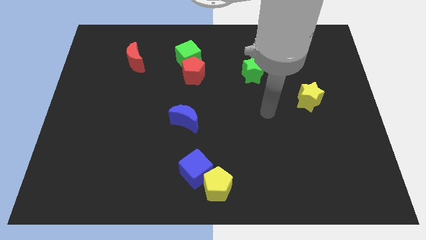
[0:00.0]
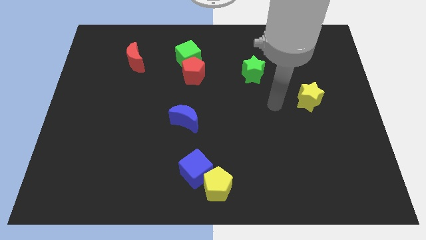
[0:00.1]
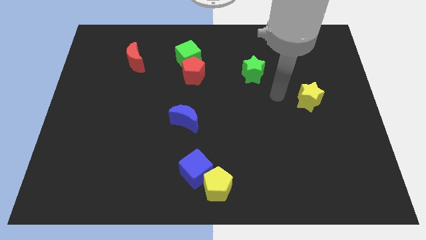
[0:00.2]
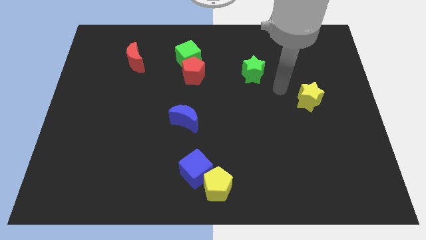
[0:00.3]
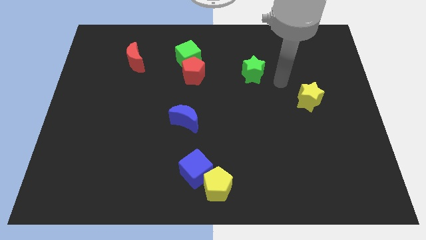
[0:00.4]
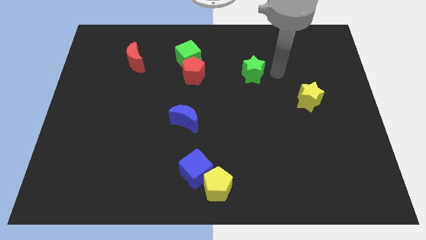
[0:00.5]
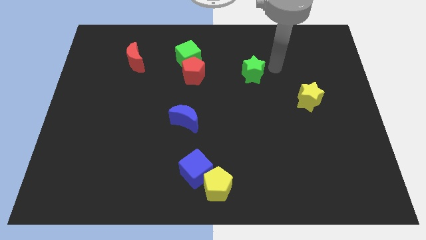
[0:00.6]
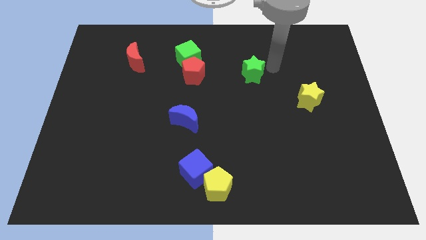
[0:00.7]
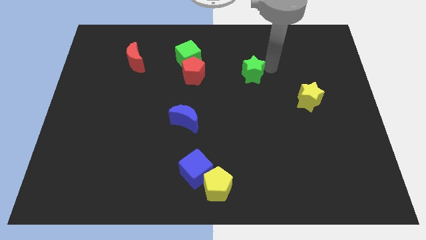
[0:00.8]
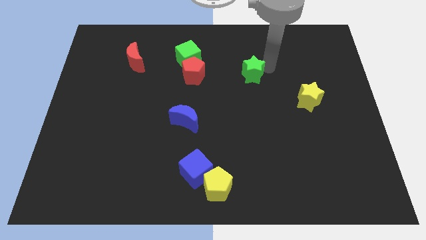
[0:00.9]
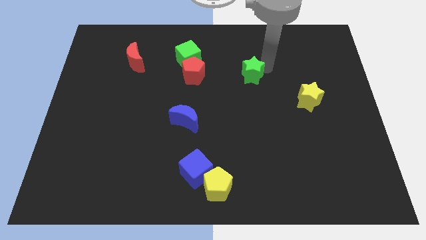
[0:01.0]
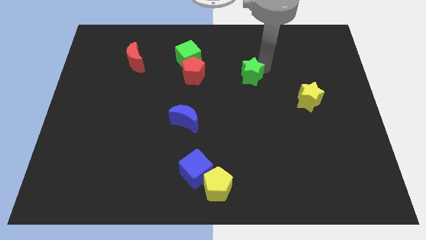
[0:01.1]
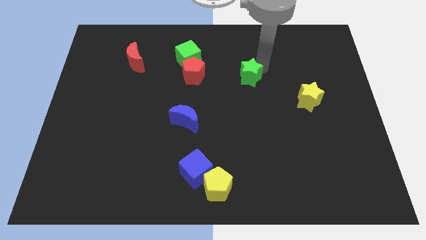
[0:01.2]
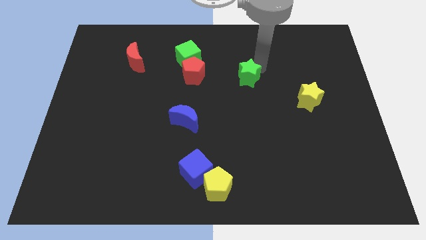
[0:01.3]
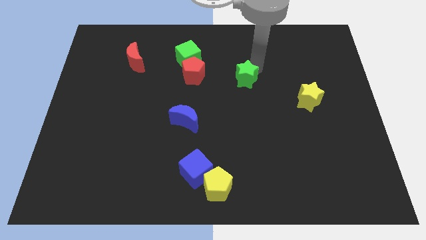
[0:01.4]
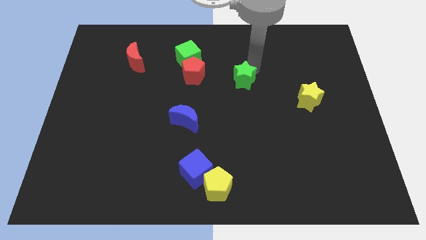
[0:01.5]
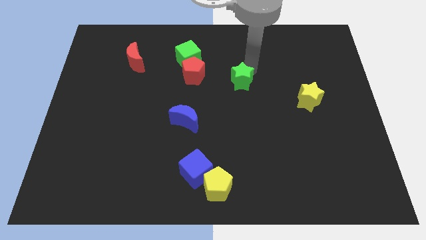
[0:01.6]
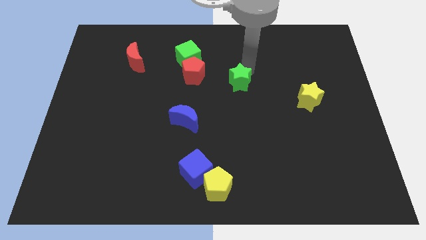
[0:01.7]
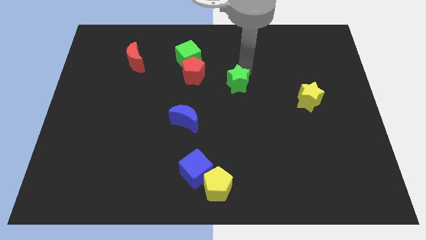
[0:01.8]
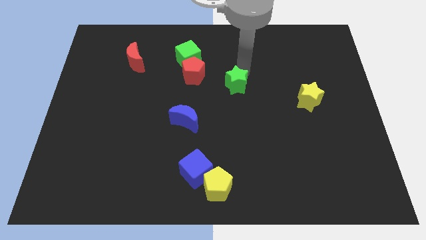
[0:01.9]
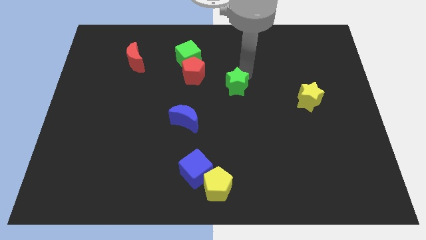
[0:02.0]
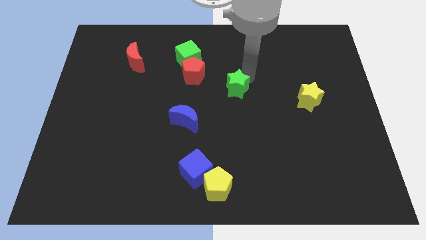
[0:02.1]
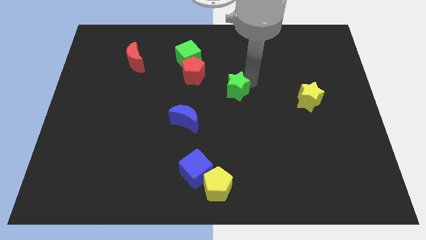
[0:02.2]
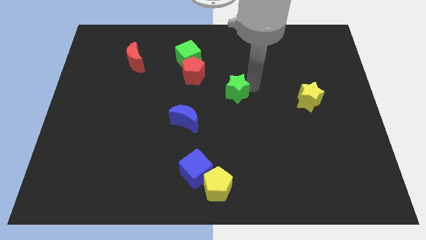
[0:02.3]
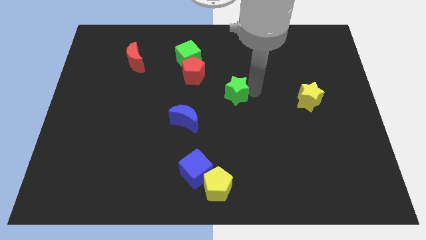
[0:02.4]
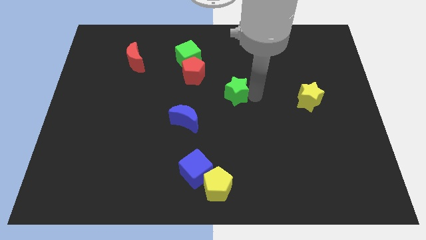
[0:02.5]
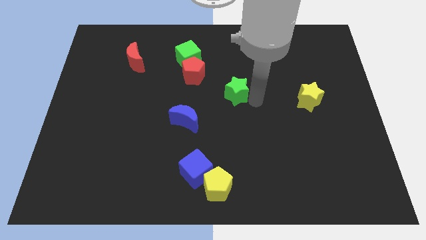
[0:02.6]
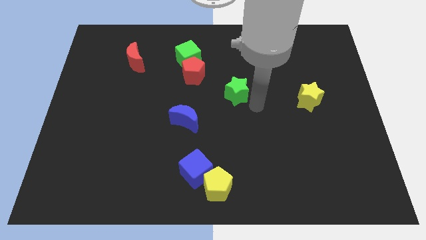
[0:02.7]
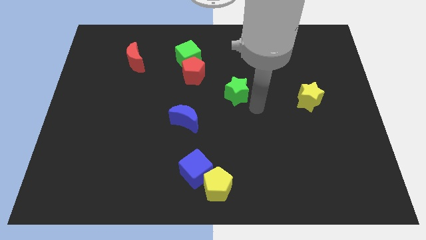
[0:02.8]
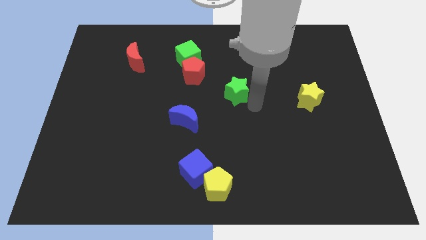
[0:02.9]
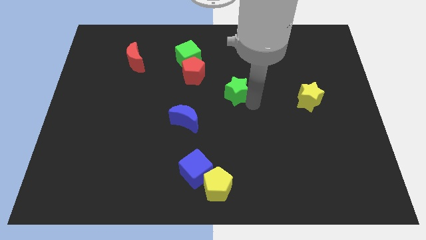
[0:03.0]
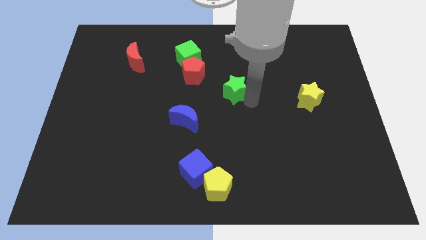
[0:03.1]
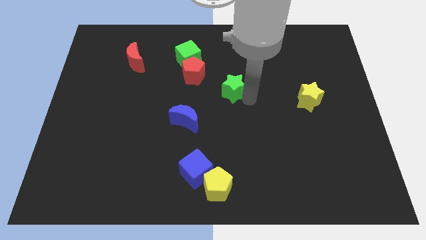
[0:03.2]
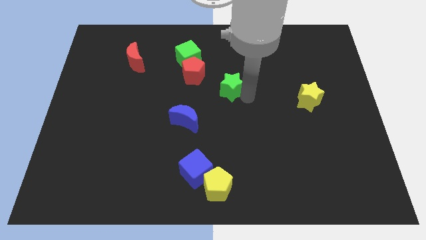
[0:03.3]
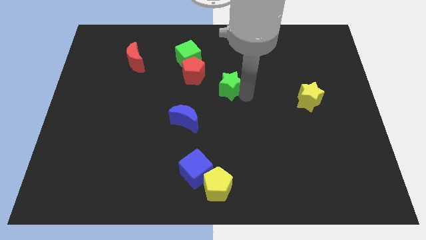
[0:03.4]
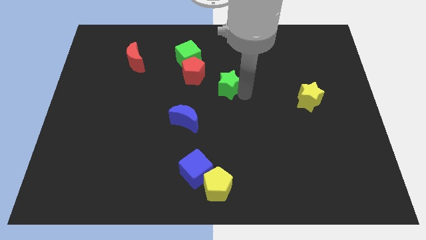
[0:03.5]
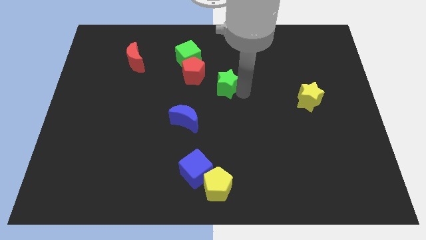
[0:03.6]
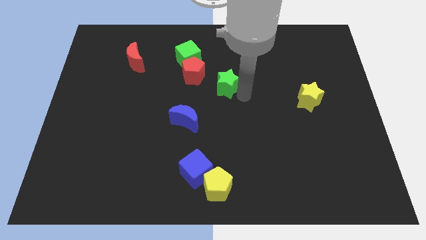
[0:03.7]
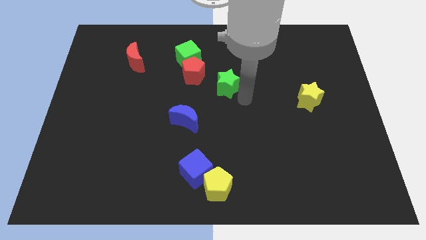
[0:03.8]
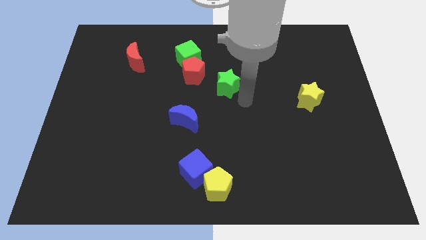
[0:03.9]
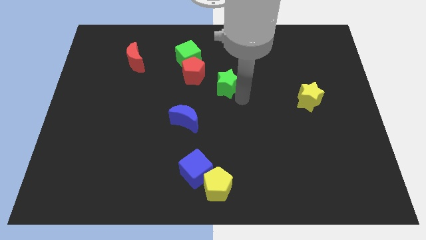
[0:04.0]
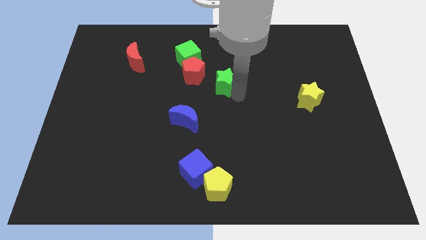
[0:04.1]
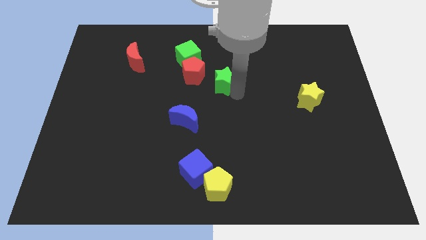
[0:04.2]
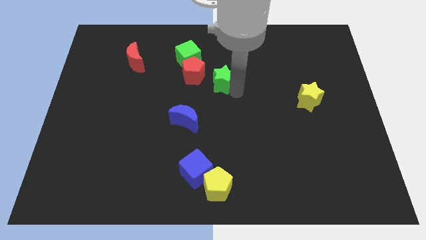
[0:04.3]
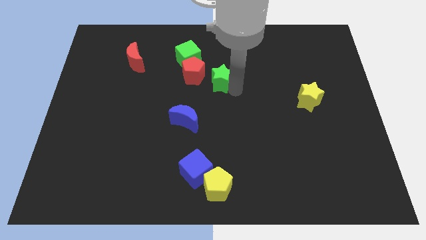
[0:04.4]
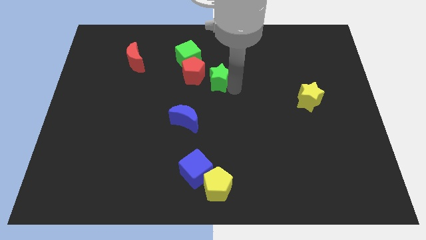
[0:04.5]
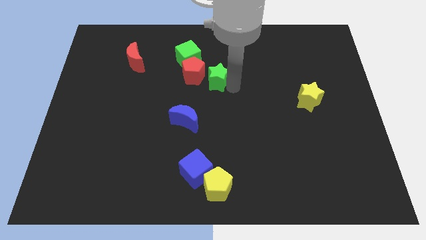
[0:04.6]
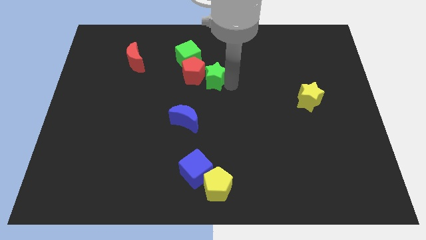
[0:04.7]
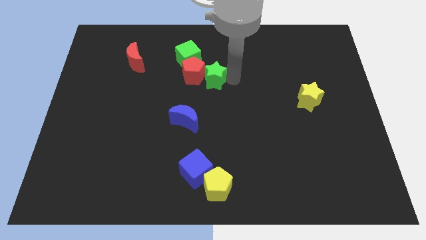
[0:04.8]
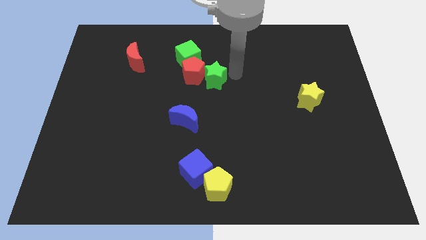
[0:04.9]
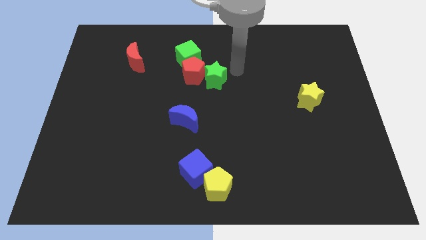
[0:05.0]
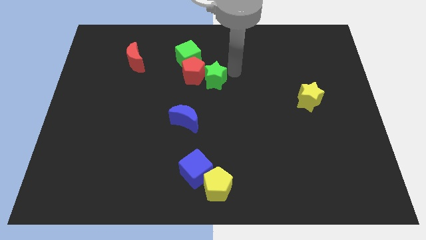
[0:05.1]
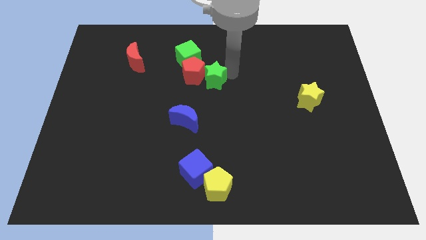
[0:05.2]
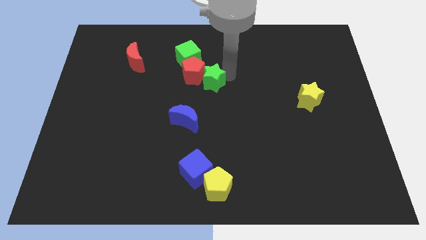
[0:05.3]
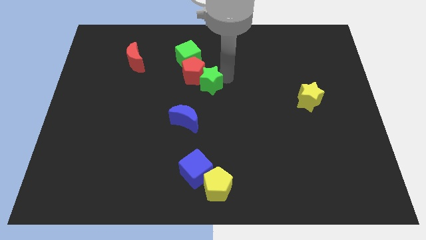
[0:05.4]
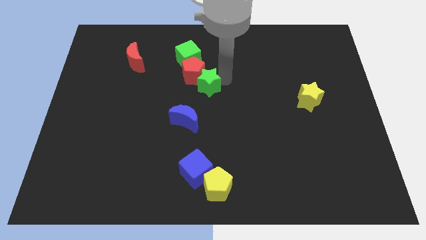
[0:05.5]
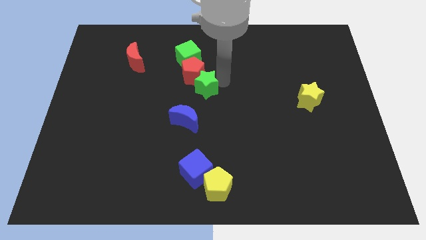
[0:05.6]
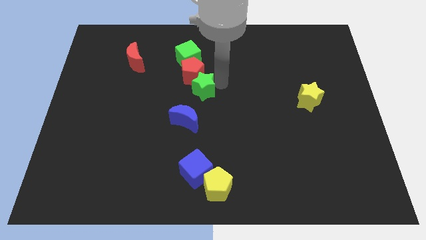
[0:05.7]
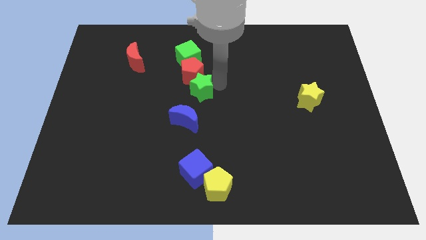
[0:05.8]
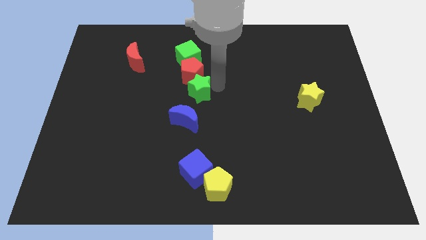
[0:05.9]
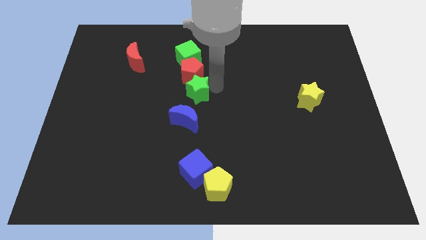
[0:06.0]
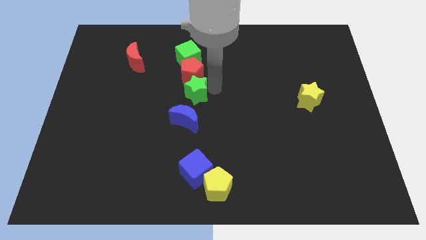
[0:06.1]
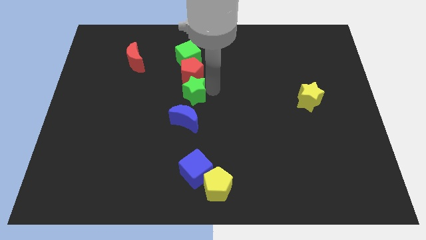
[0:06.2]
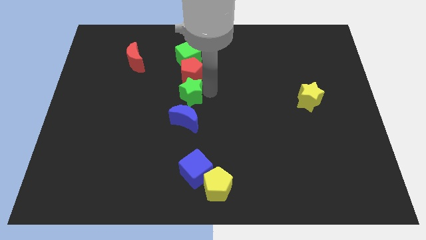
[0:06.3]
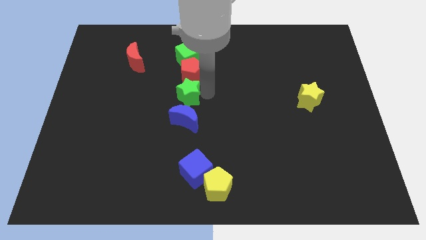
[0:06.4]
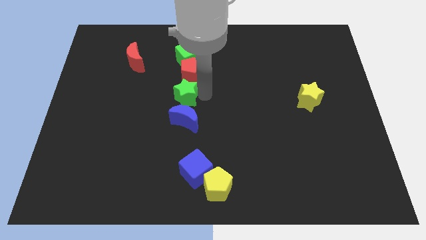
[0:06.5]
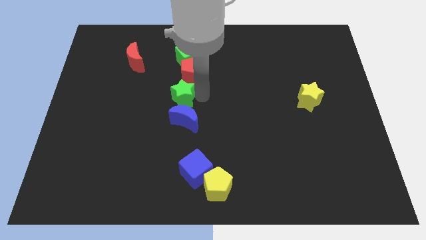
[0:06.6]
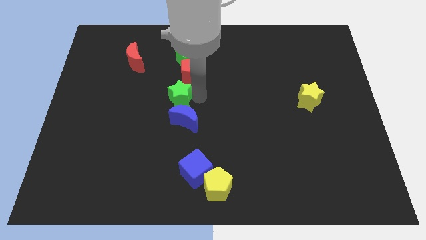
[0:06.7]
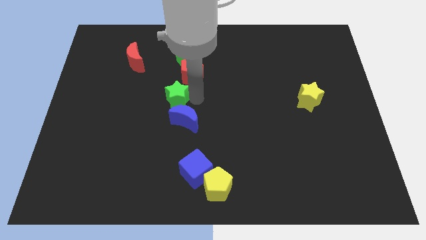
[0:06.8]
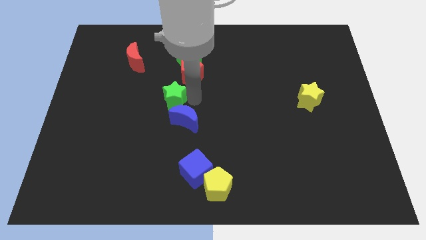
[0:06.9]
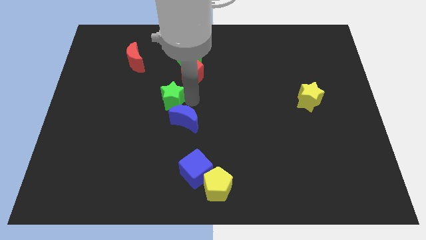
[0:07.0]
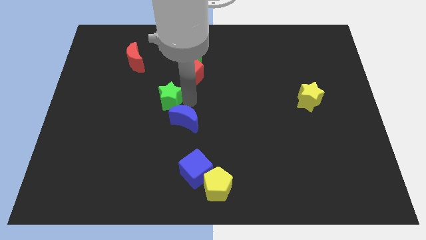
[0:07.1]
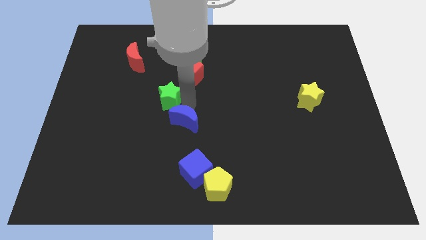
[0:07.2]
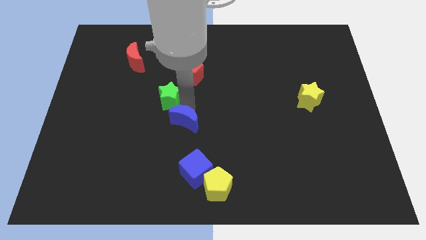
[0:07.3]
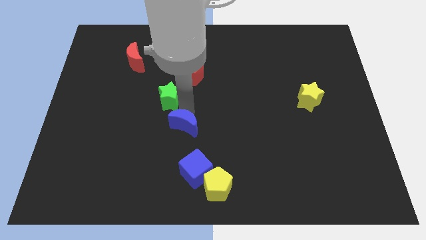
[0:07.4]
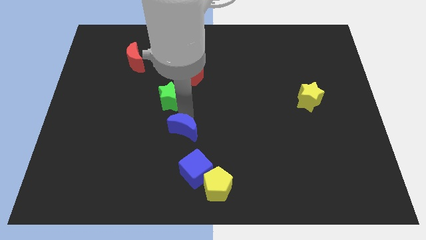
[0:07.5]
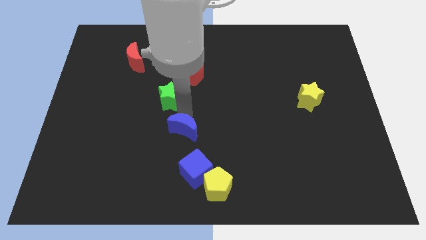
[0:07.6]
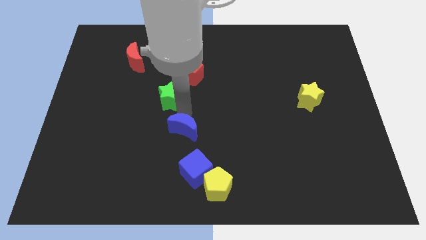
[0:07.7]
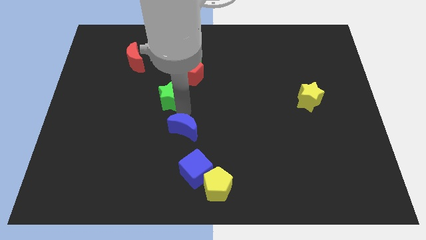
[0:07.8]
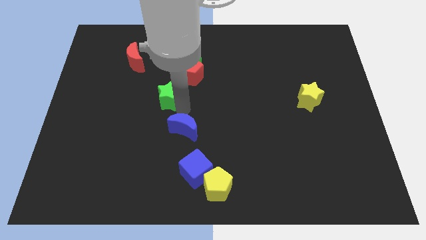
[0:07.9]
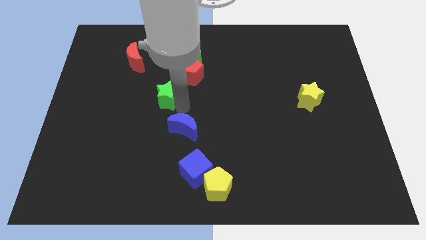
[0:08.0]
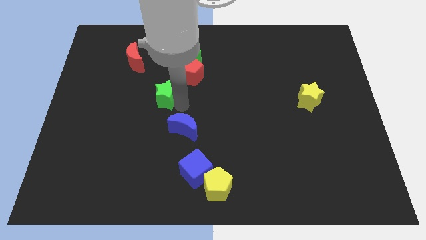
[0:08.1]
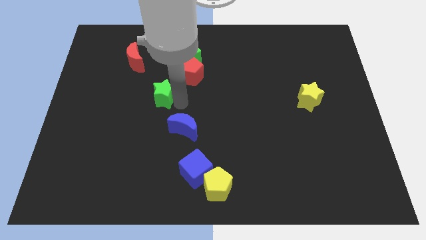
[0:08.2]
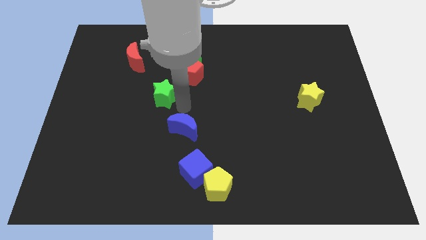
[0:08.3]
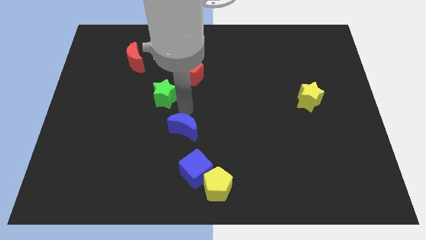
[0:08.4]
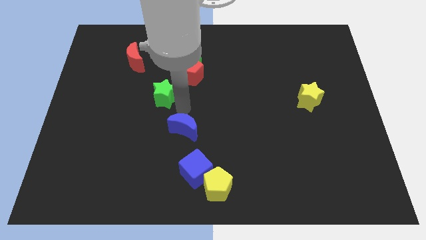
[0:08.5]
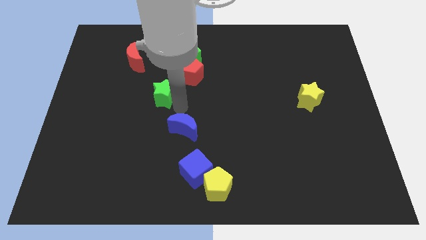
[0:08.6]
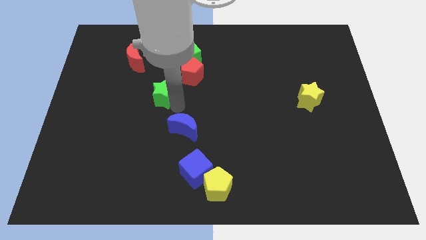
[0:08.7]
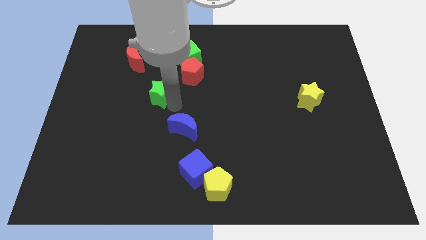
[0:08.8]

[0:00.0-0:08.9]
slide the green star to the left
